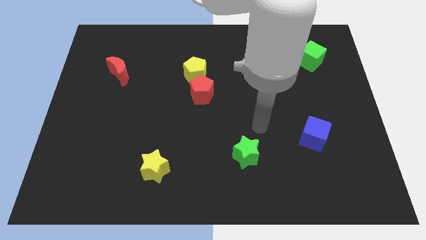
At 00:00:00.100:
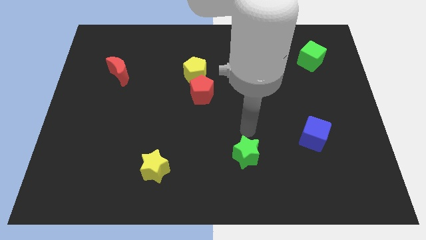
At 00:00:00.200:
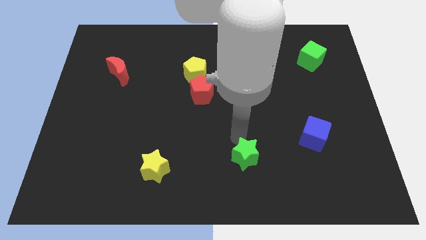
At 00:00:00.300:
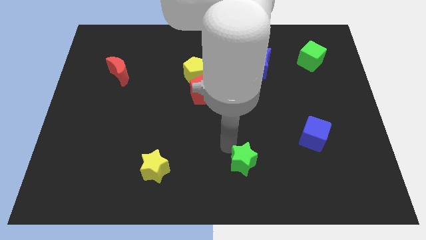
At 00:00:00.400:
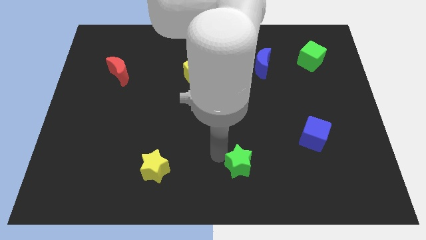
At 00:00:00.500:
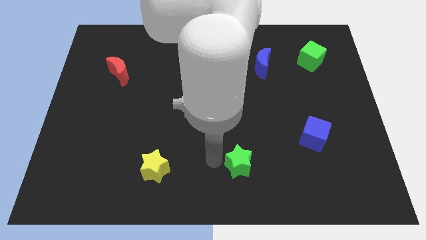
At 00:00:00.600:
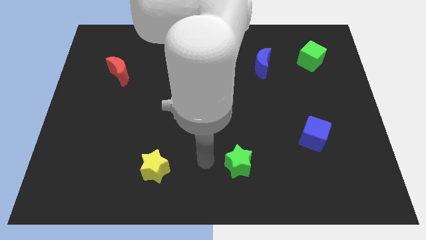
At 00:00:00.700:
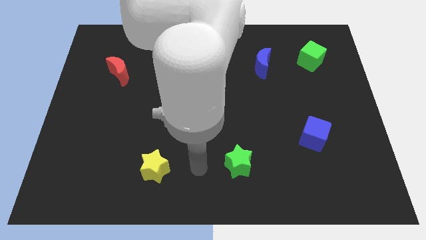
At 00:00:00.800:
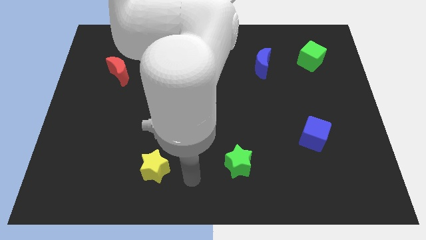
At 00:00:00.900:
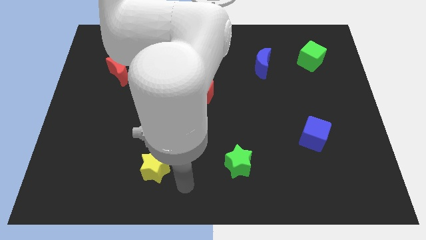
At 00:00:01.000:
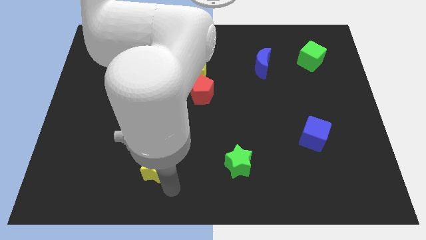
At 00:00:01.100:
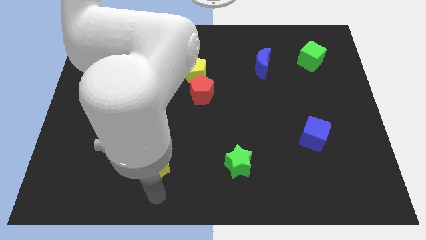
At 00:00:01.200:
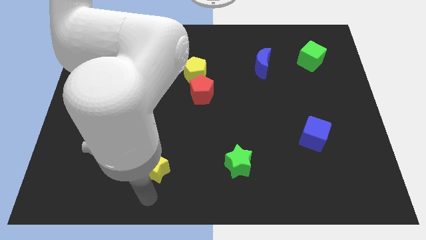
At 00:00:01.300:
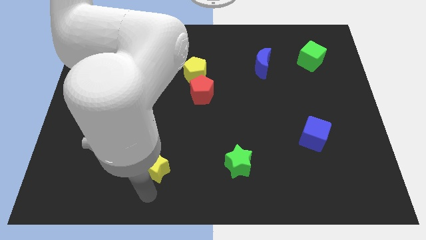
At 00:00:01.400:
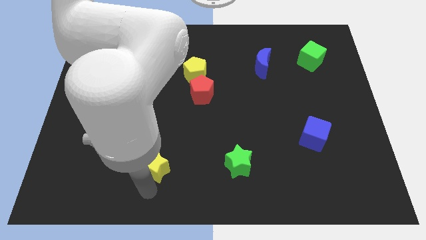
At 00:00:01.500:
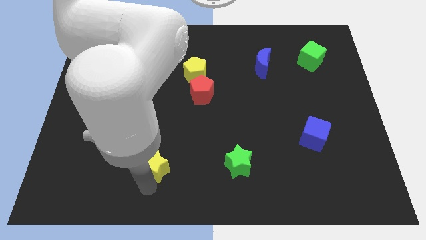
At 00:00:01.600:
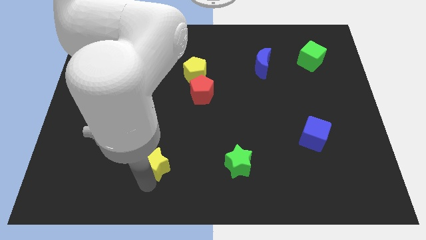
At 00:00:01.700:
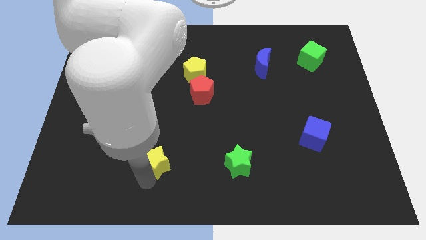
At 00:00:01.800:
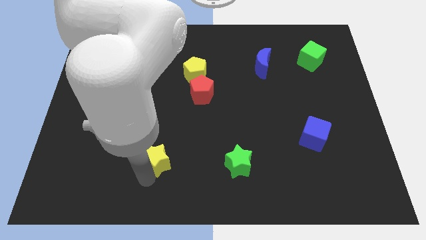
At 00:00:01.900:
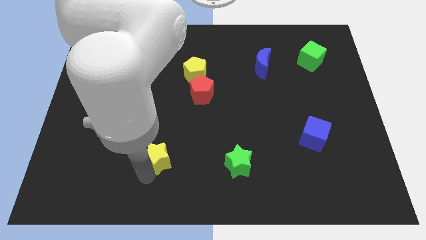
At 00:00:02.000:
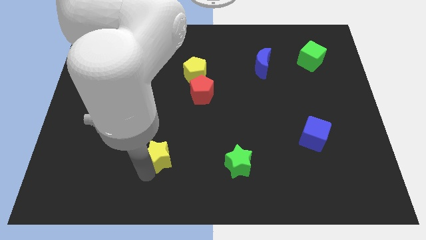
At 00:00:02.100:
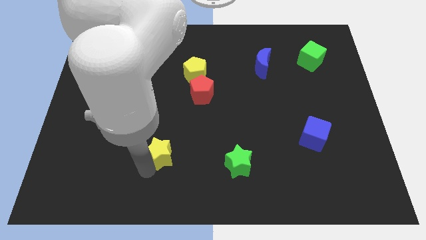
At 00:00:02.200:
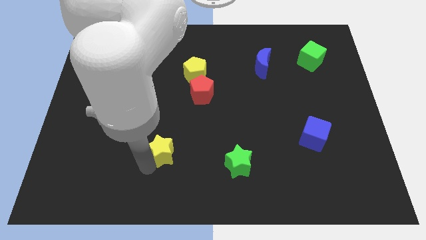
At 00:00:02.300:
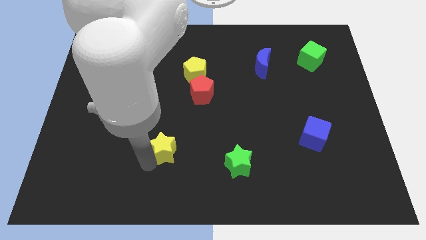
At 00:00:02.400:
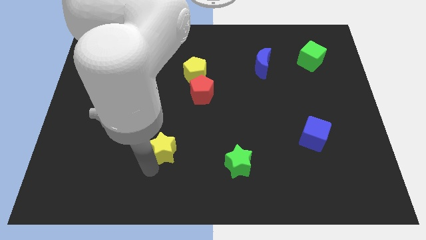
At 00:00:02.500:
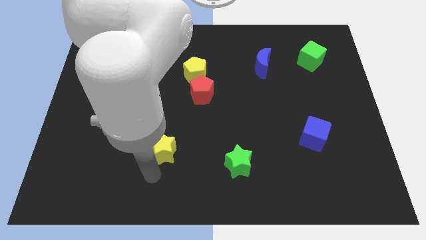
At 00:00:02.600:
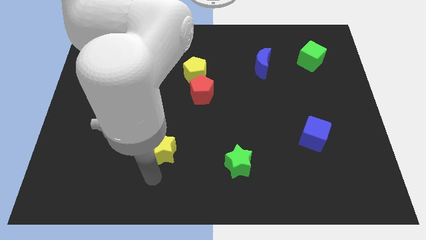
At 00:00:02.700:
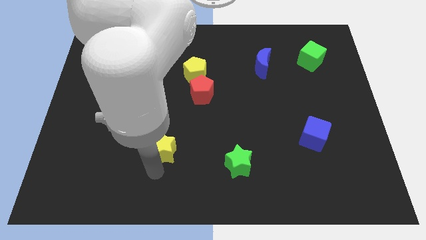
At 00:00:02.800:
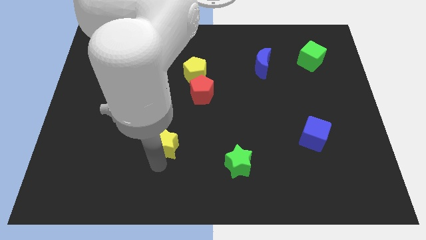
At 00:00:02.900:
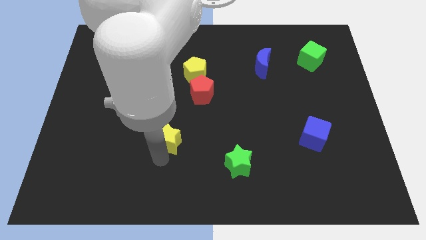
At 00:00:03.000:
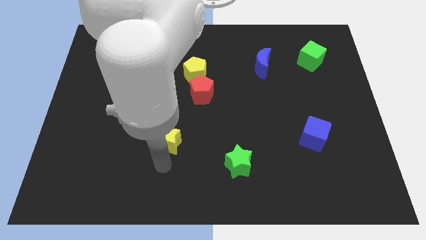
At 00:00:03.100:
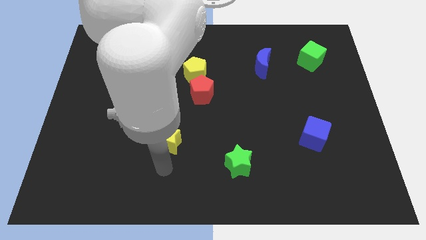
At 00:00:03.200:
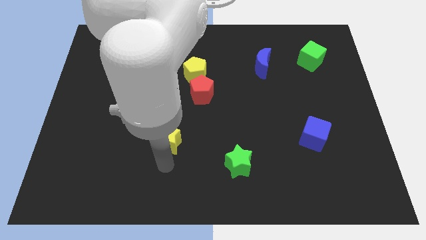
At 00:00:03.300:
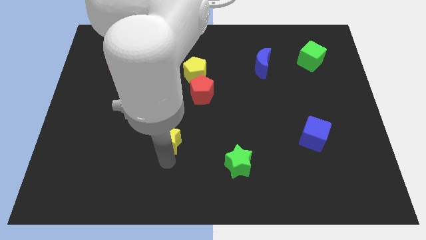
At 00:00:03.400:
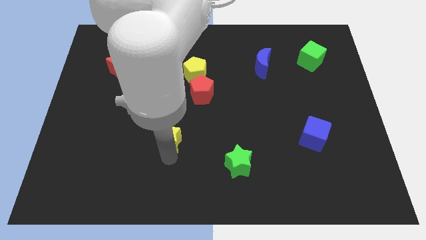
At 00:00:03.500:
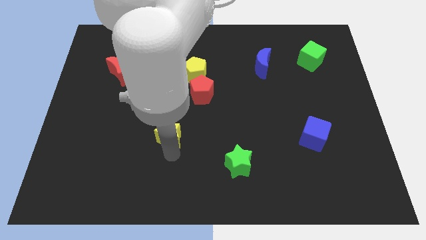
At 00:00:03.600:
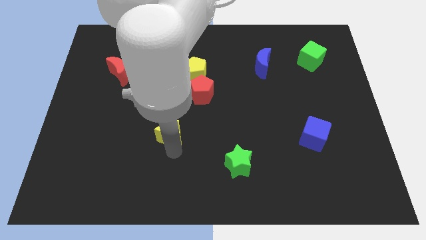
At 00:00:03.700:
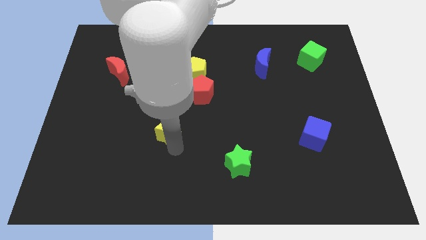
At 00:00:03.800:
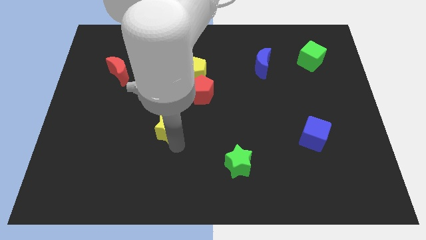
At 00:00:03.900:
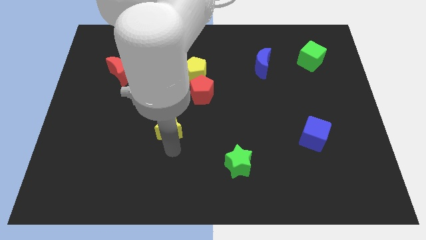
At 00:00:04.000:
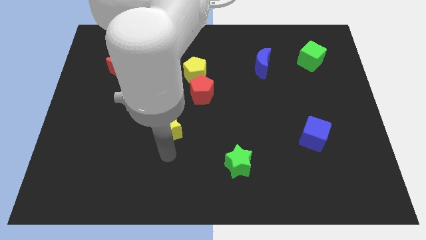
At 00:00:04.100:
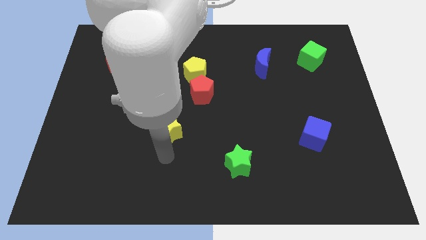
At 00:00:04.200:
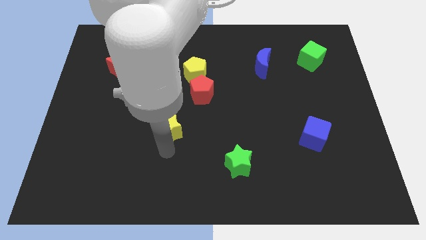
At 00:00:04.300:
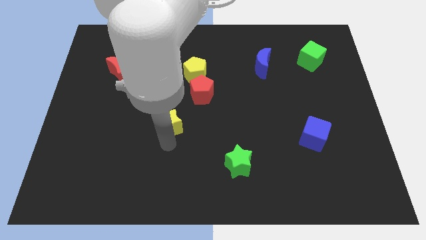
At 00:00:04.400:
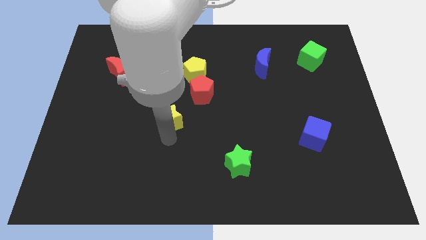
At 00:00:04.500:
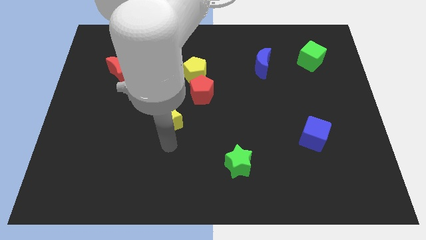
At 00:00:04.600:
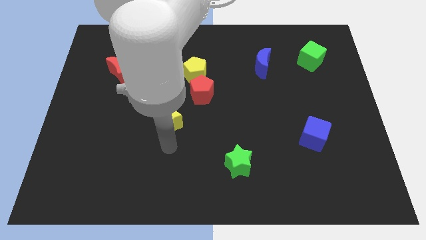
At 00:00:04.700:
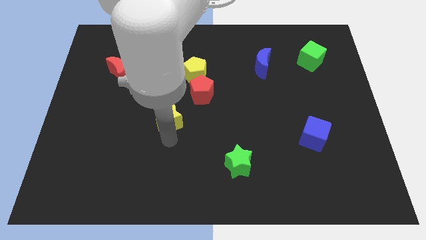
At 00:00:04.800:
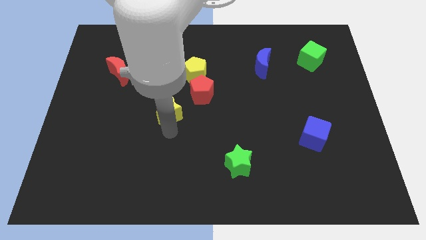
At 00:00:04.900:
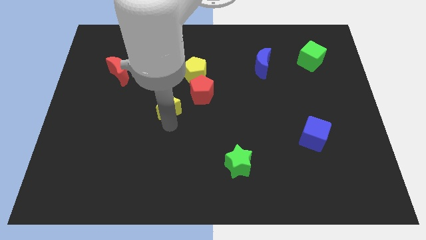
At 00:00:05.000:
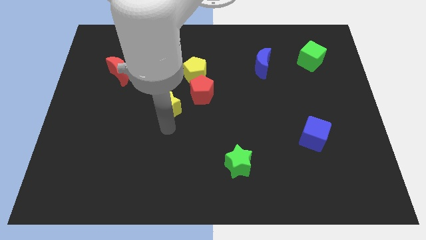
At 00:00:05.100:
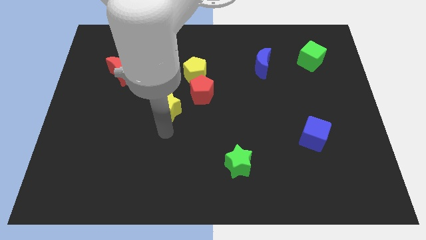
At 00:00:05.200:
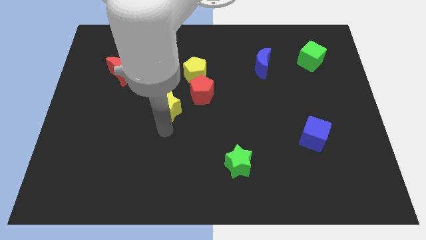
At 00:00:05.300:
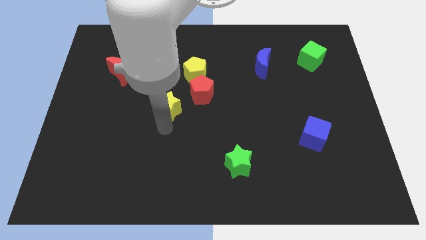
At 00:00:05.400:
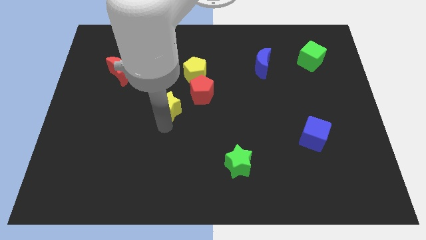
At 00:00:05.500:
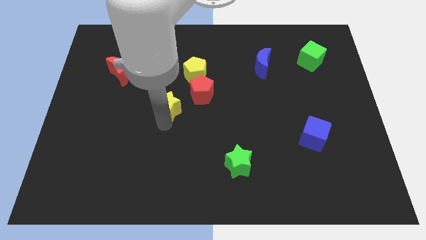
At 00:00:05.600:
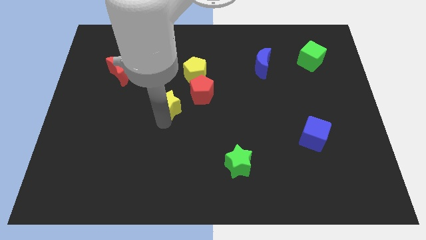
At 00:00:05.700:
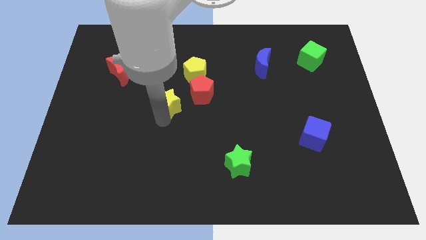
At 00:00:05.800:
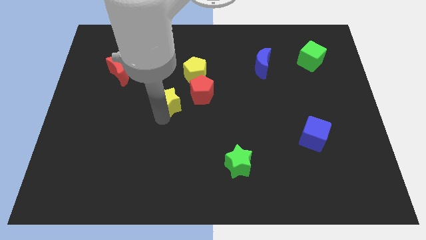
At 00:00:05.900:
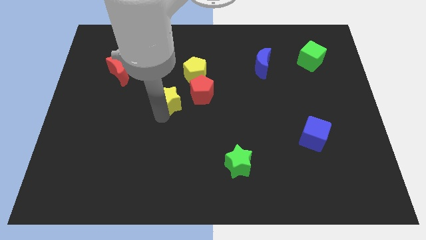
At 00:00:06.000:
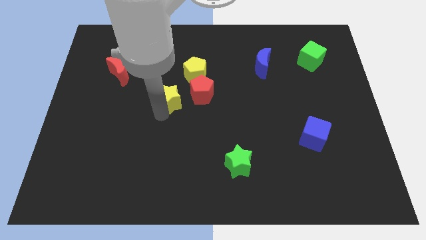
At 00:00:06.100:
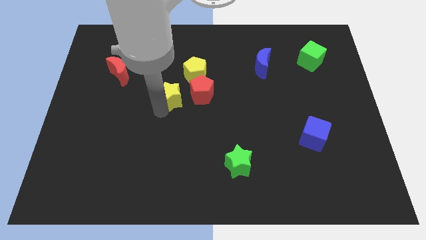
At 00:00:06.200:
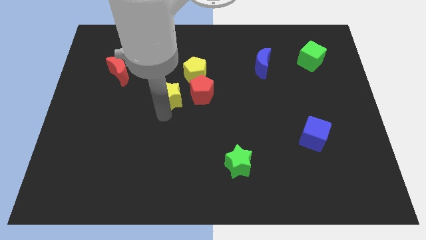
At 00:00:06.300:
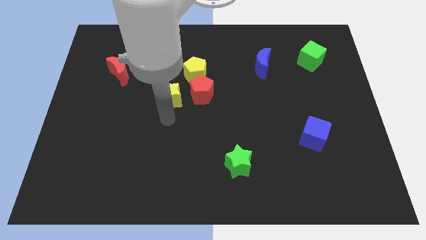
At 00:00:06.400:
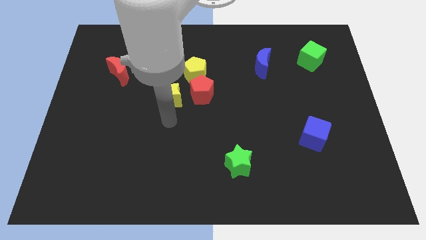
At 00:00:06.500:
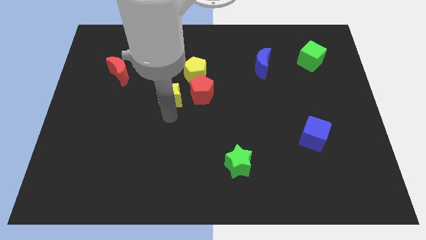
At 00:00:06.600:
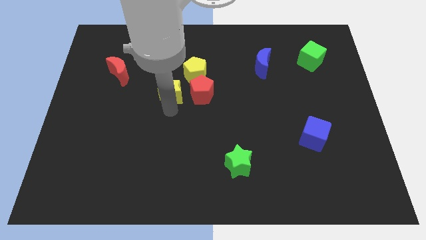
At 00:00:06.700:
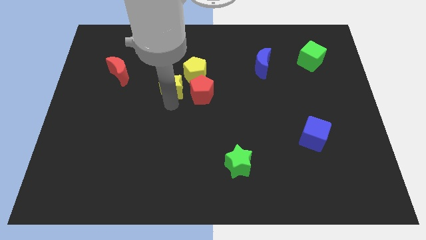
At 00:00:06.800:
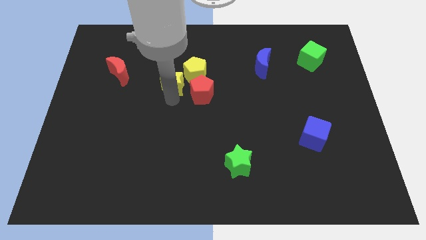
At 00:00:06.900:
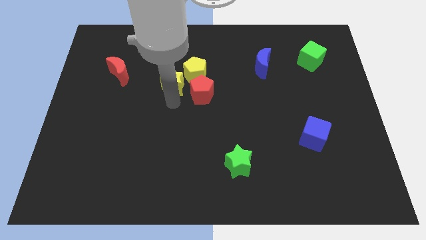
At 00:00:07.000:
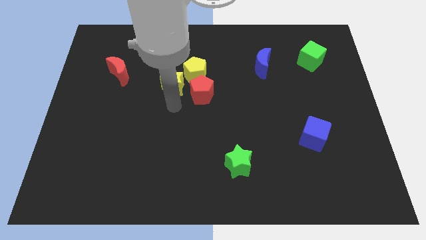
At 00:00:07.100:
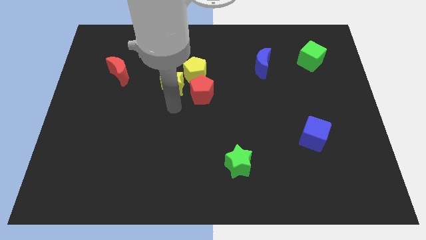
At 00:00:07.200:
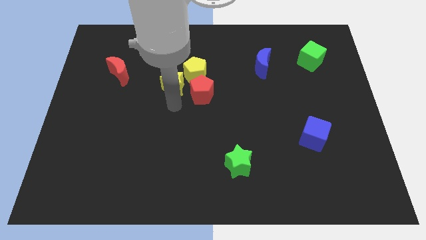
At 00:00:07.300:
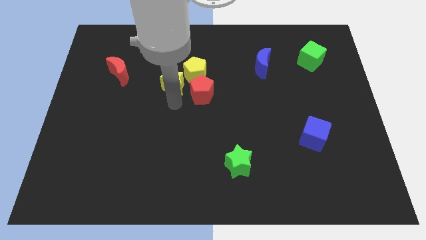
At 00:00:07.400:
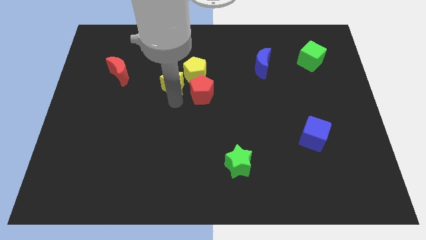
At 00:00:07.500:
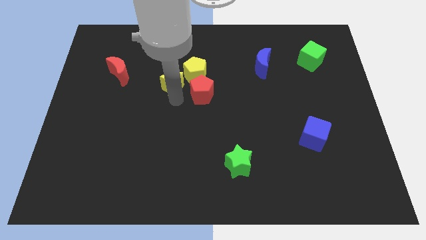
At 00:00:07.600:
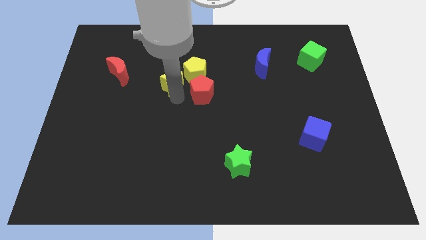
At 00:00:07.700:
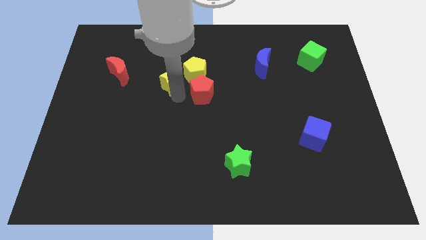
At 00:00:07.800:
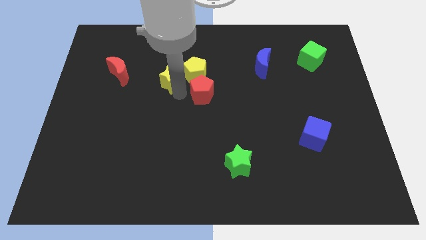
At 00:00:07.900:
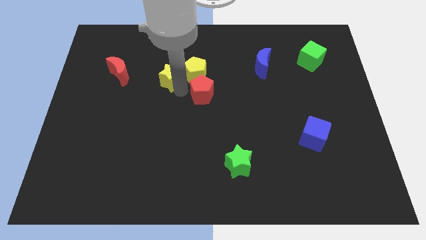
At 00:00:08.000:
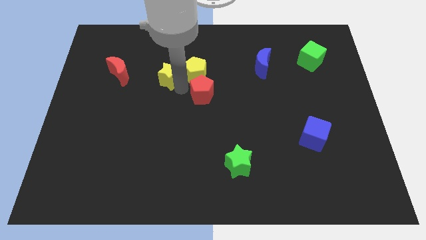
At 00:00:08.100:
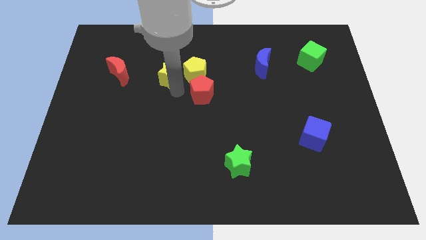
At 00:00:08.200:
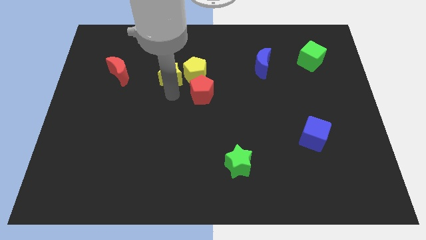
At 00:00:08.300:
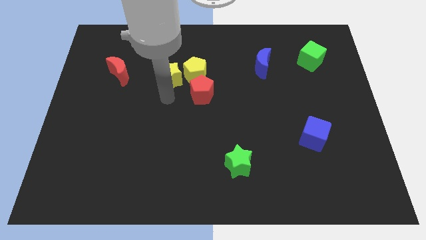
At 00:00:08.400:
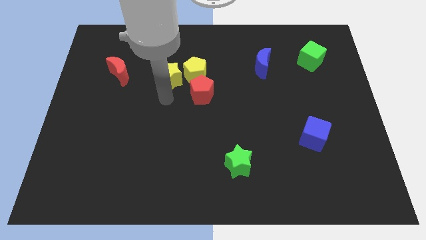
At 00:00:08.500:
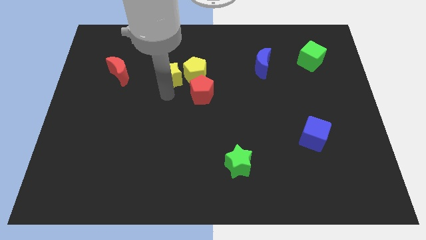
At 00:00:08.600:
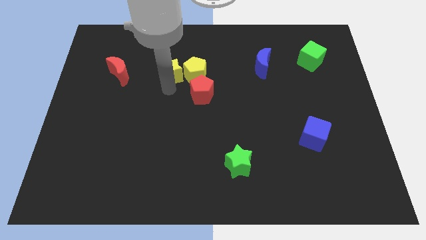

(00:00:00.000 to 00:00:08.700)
push the yellow star to the top left side of the yellow pentagon
